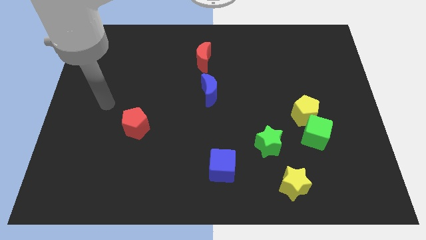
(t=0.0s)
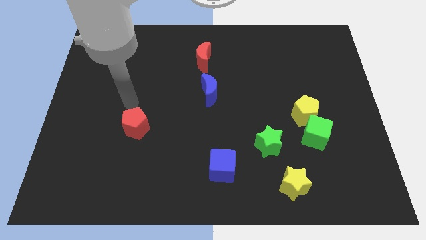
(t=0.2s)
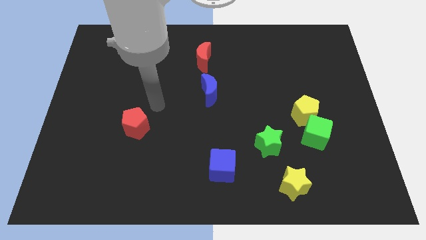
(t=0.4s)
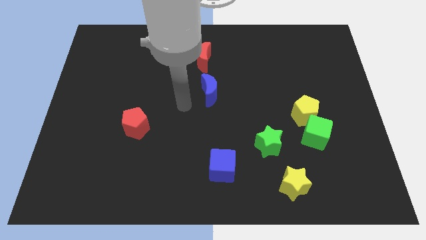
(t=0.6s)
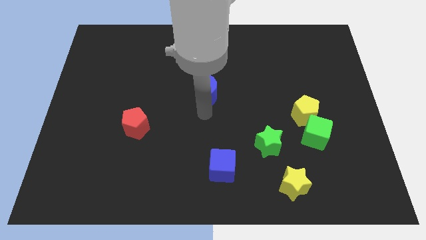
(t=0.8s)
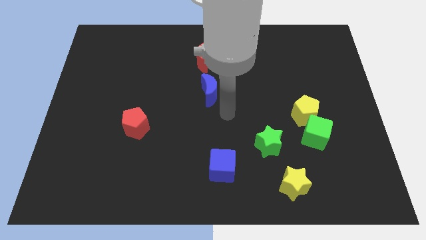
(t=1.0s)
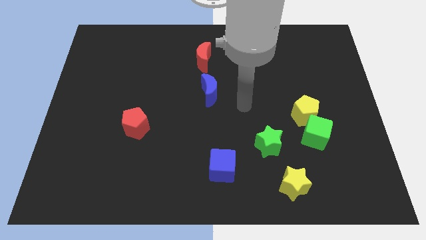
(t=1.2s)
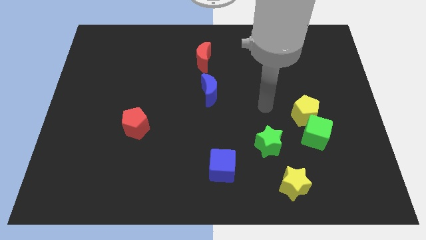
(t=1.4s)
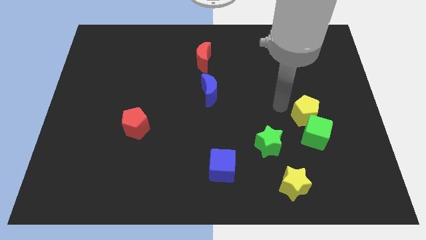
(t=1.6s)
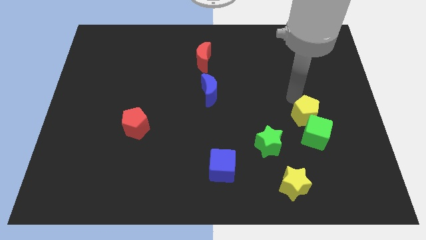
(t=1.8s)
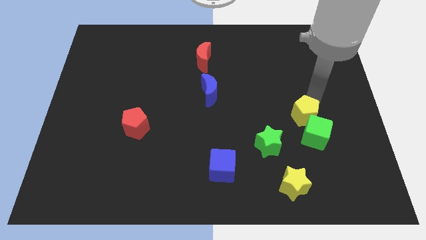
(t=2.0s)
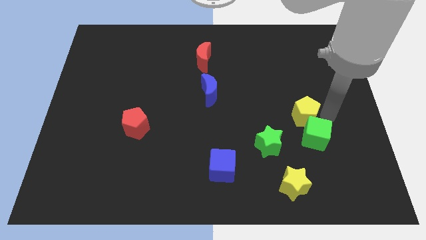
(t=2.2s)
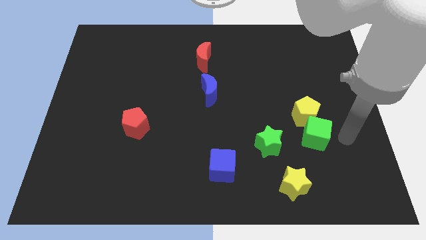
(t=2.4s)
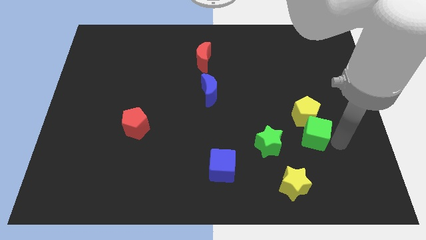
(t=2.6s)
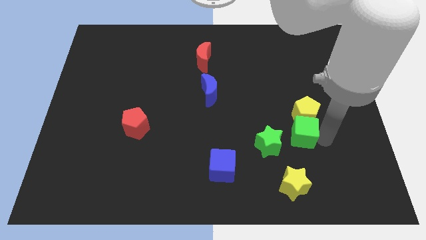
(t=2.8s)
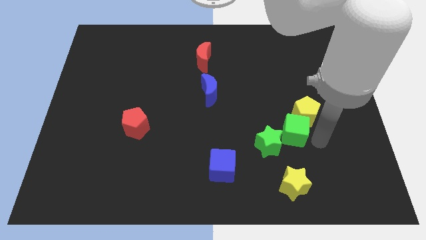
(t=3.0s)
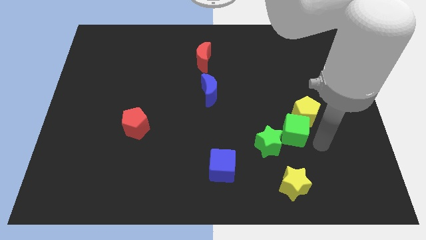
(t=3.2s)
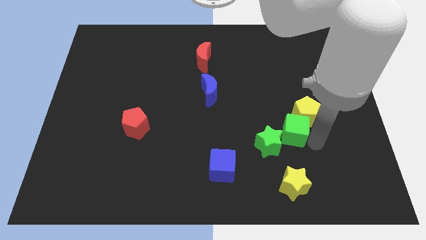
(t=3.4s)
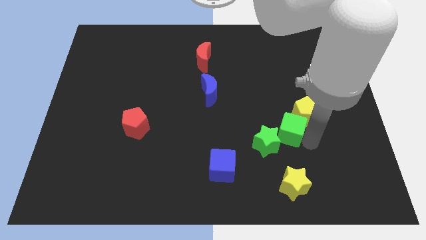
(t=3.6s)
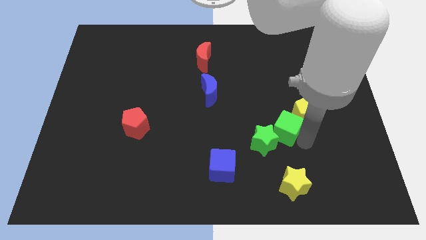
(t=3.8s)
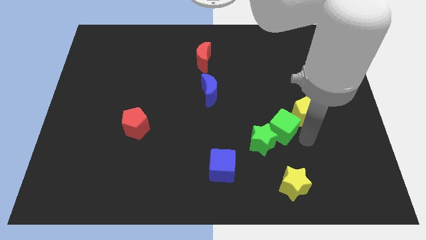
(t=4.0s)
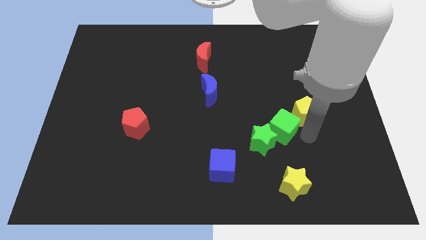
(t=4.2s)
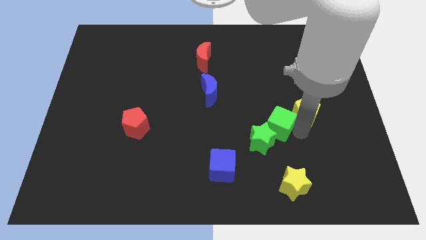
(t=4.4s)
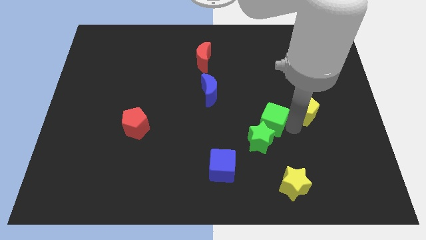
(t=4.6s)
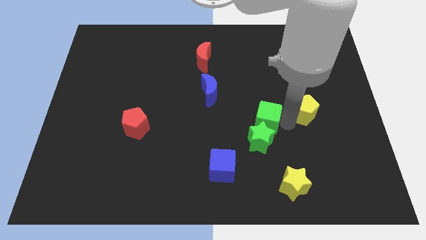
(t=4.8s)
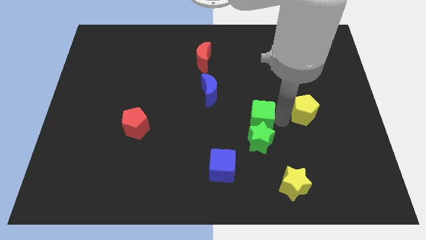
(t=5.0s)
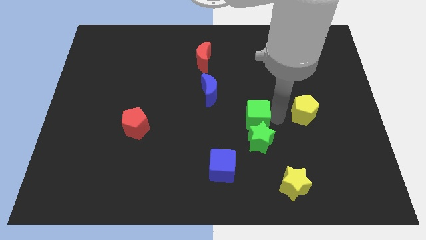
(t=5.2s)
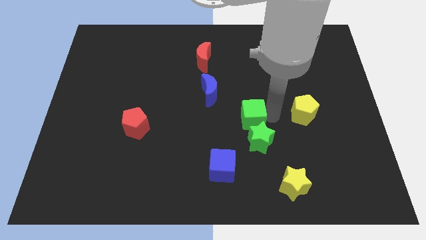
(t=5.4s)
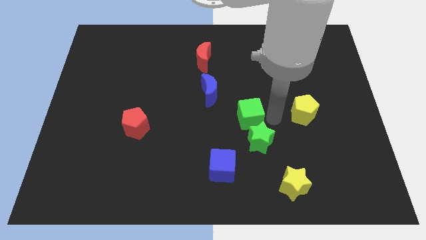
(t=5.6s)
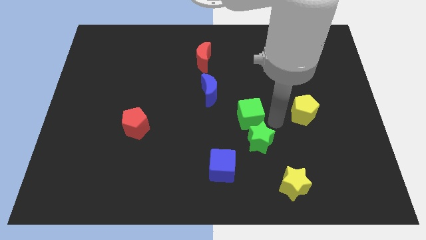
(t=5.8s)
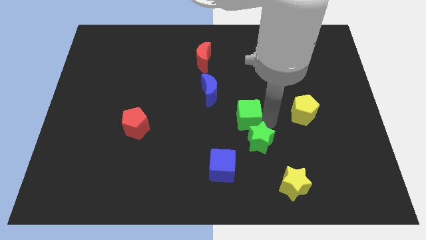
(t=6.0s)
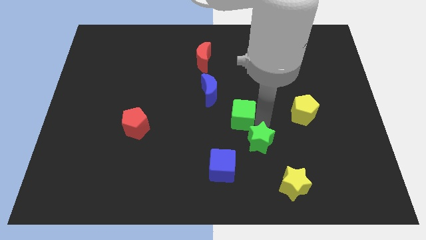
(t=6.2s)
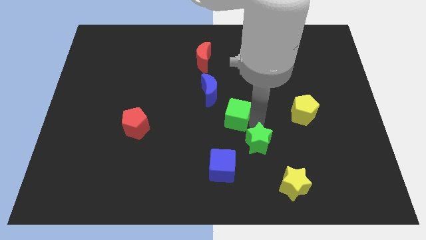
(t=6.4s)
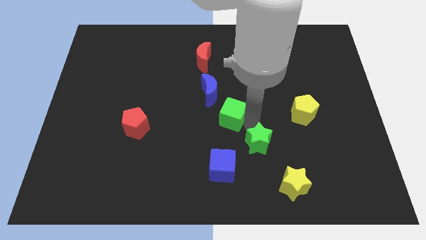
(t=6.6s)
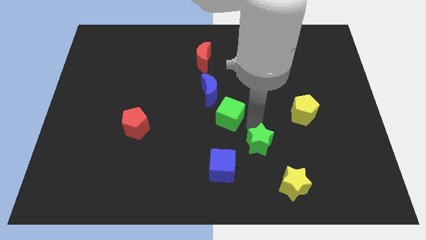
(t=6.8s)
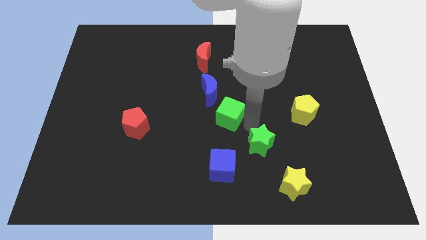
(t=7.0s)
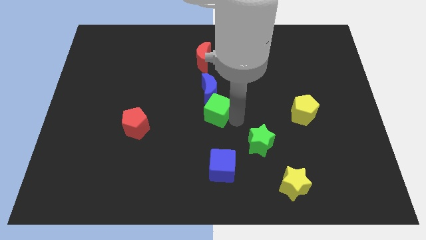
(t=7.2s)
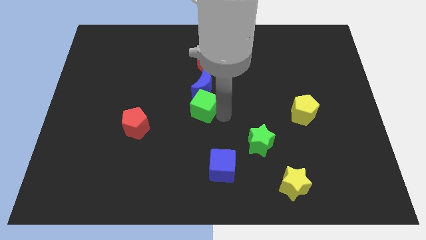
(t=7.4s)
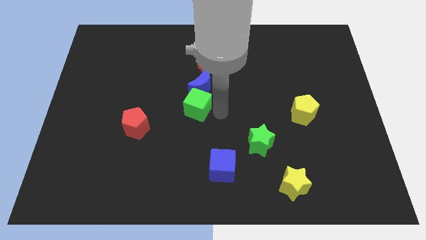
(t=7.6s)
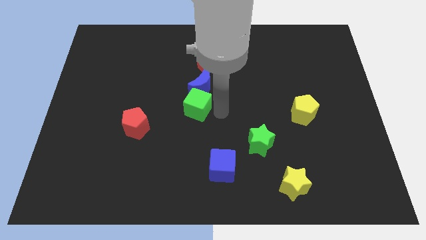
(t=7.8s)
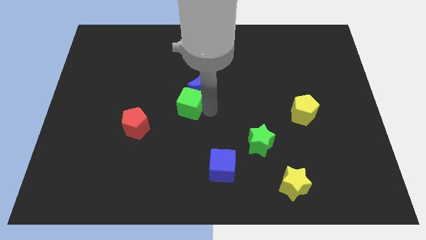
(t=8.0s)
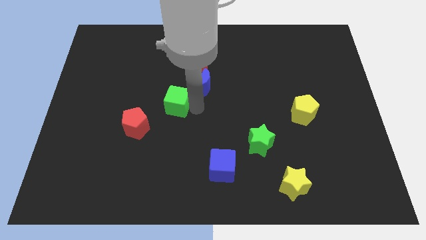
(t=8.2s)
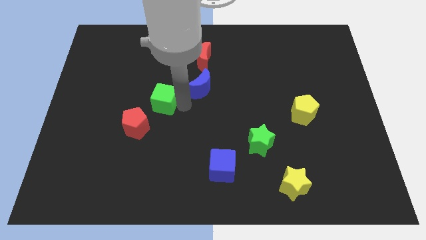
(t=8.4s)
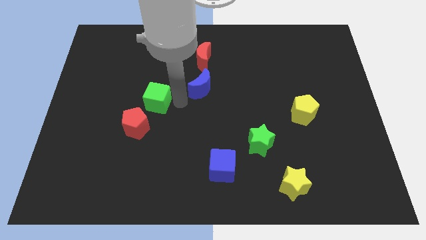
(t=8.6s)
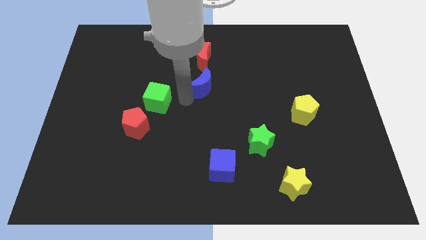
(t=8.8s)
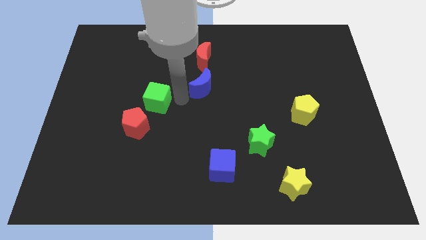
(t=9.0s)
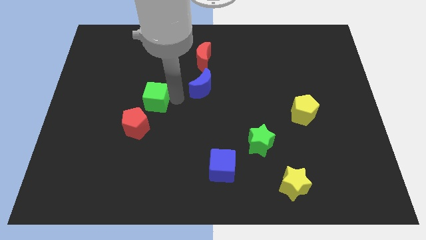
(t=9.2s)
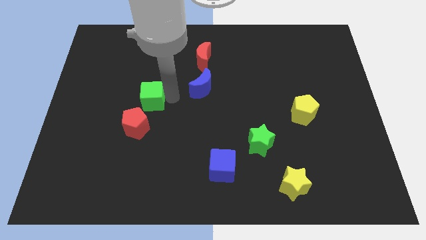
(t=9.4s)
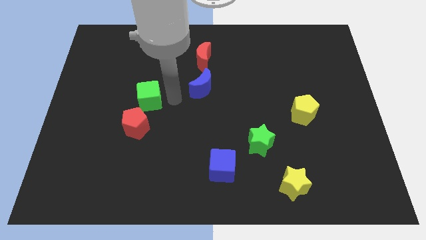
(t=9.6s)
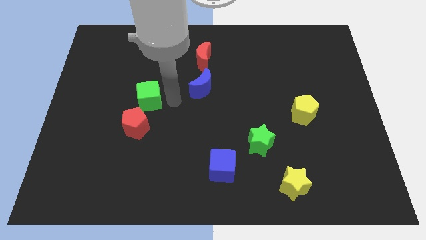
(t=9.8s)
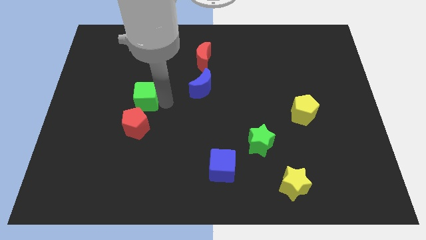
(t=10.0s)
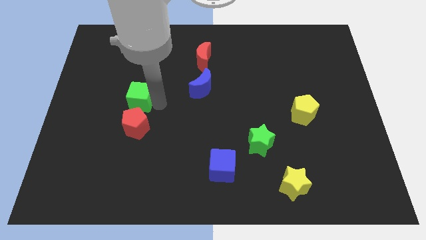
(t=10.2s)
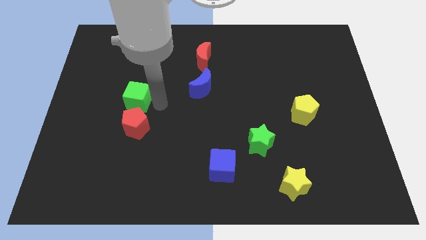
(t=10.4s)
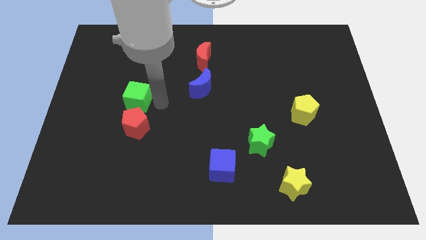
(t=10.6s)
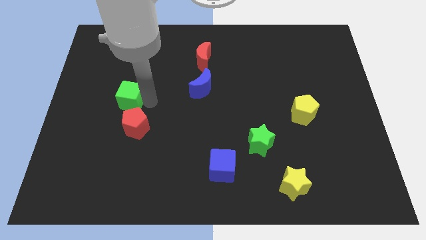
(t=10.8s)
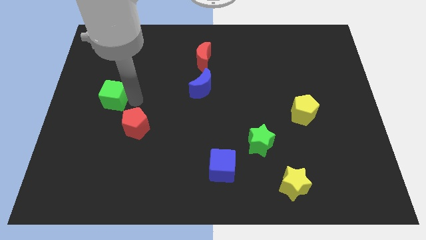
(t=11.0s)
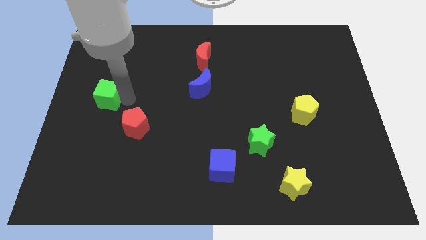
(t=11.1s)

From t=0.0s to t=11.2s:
push the green cube to the center left
